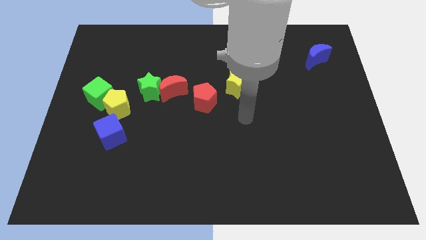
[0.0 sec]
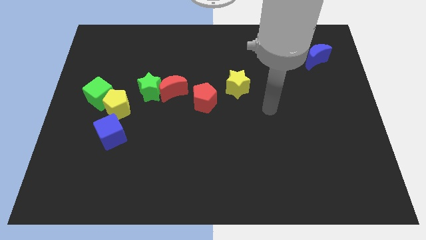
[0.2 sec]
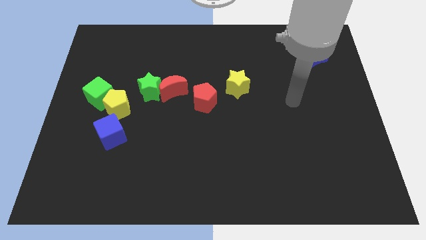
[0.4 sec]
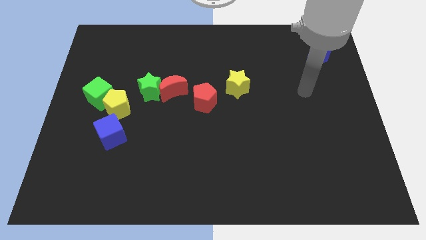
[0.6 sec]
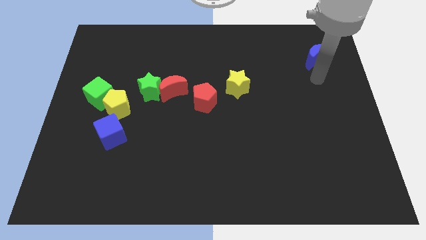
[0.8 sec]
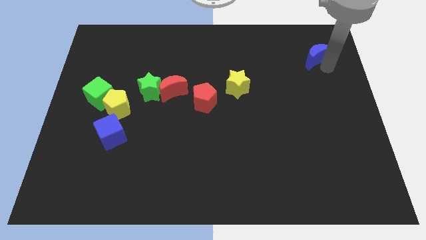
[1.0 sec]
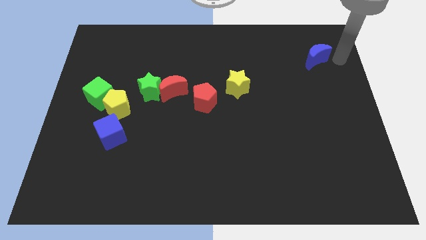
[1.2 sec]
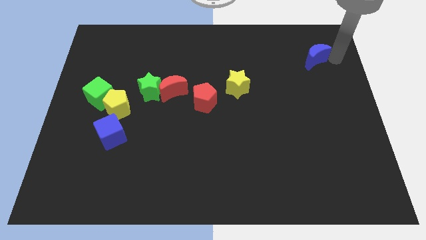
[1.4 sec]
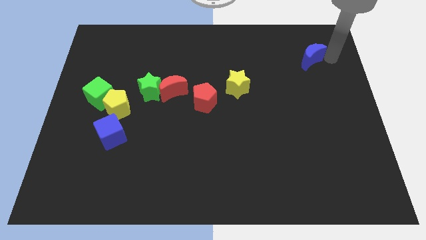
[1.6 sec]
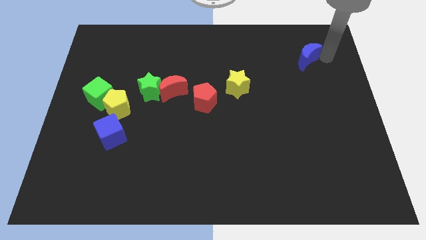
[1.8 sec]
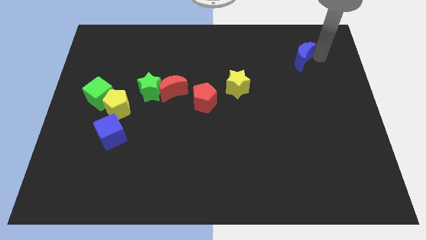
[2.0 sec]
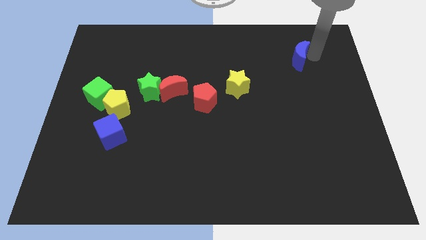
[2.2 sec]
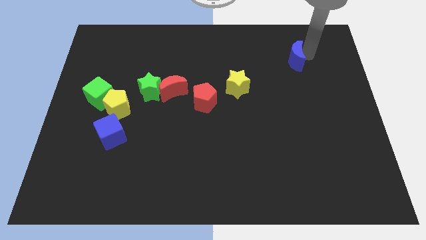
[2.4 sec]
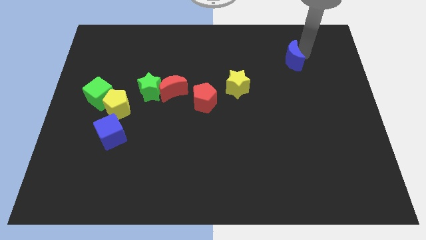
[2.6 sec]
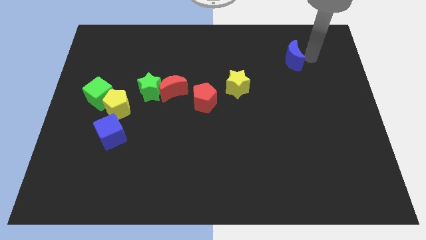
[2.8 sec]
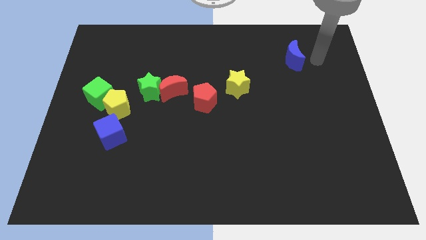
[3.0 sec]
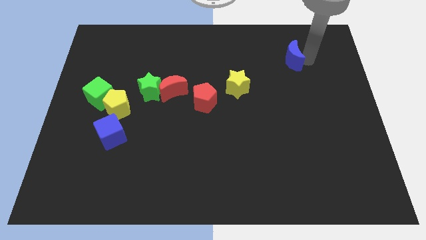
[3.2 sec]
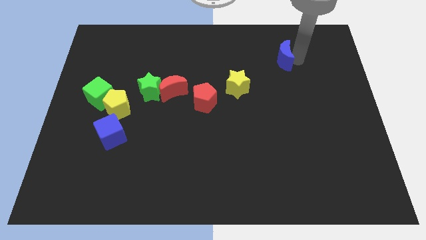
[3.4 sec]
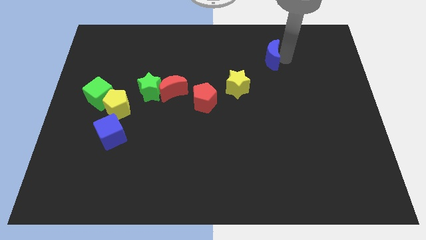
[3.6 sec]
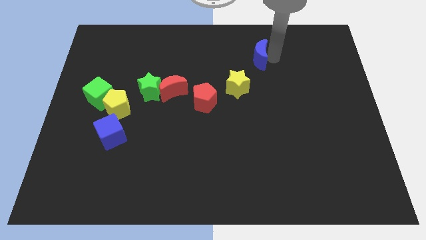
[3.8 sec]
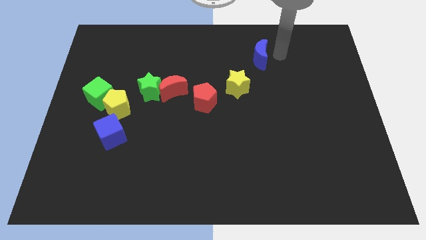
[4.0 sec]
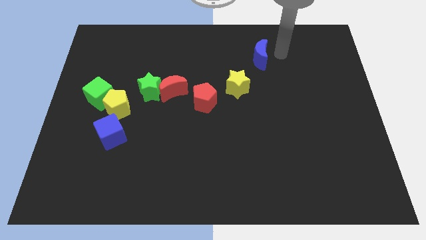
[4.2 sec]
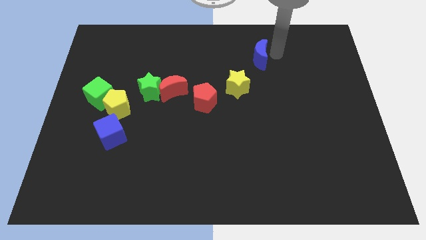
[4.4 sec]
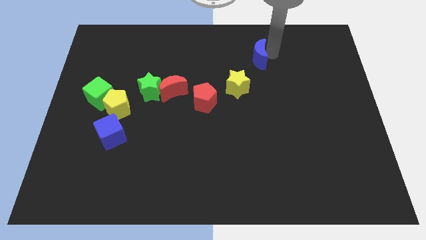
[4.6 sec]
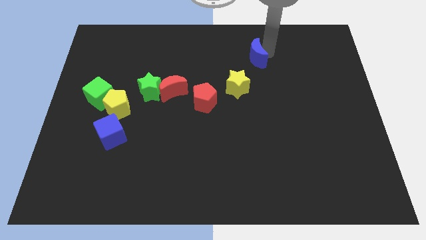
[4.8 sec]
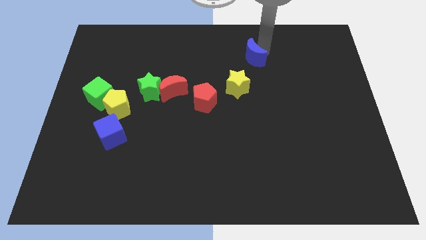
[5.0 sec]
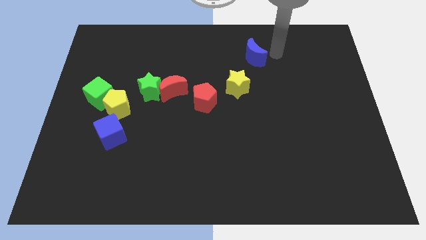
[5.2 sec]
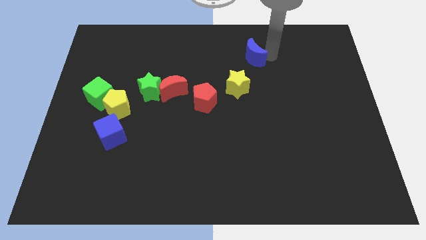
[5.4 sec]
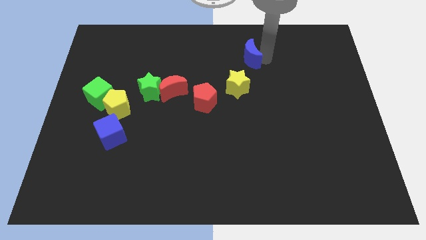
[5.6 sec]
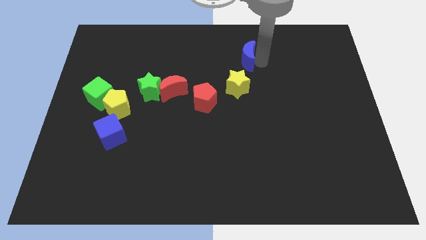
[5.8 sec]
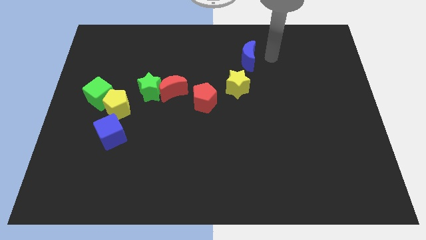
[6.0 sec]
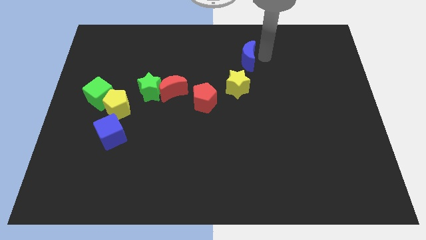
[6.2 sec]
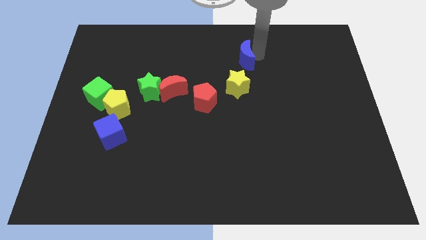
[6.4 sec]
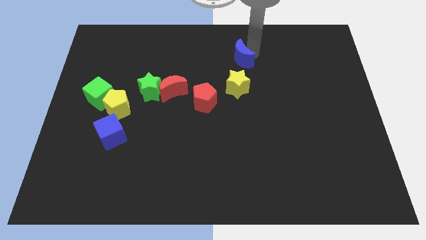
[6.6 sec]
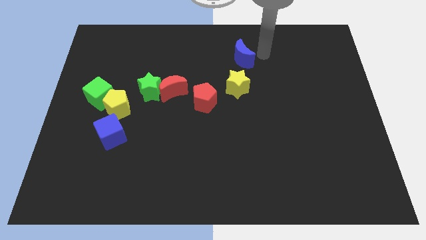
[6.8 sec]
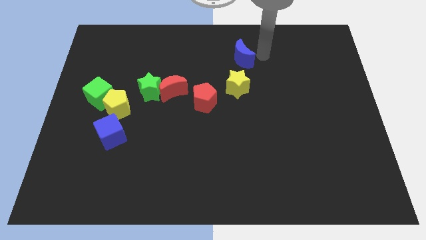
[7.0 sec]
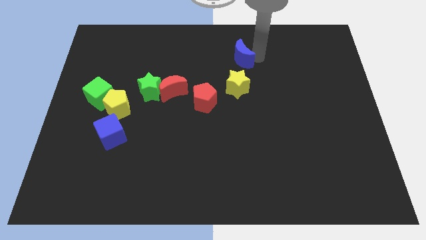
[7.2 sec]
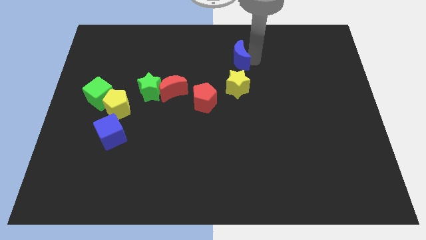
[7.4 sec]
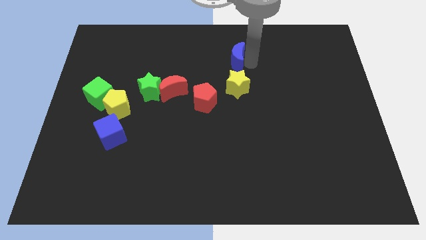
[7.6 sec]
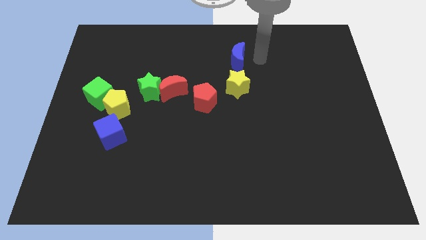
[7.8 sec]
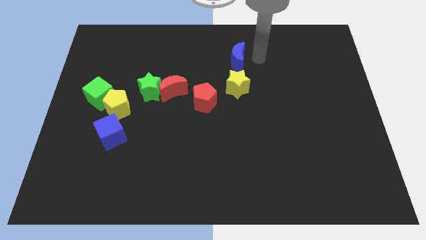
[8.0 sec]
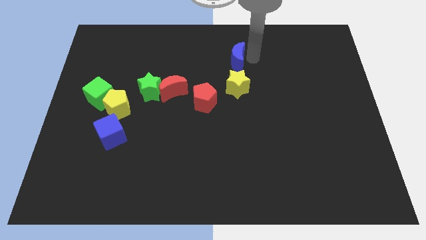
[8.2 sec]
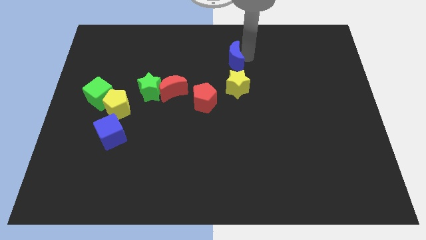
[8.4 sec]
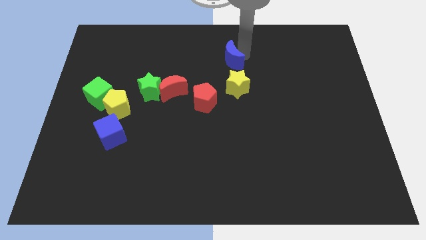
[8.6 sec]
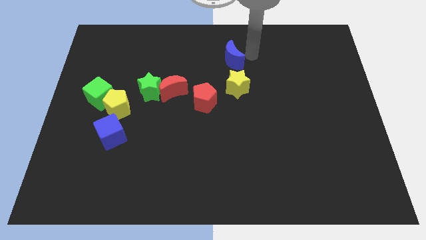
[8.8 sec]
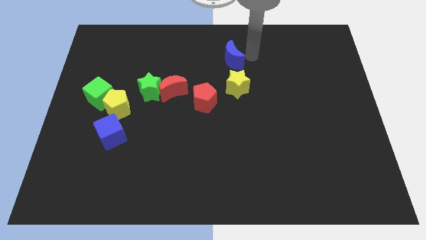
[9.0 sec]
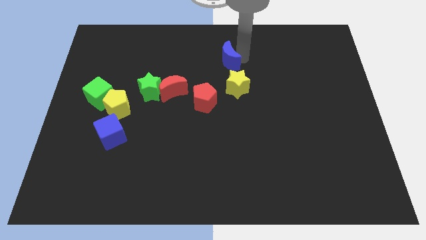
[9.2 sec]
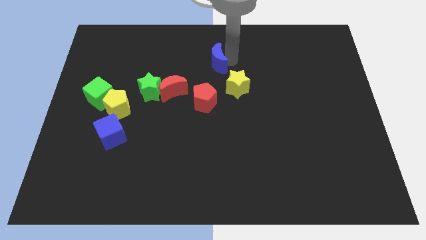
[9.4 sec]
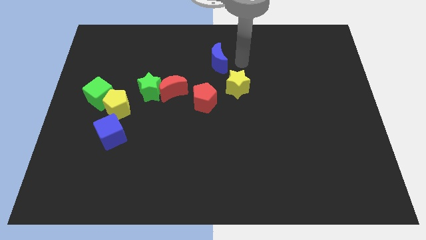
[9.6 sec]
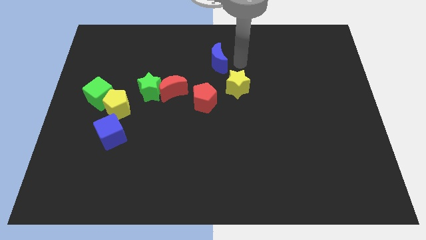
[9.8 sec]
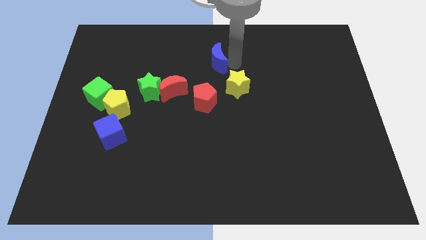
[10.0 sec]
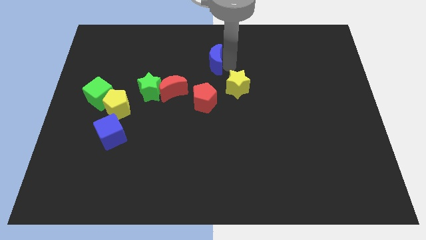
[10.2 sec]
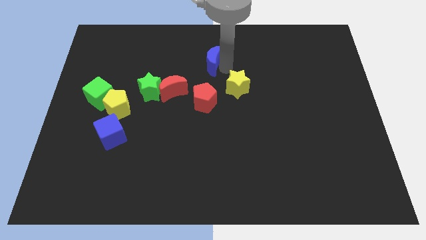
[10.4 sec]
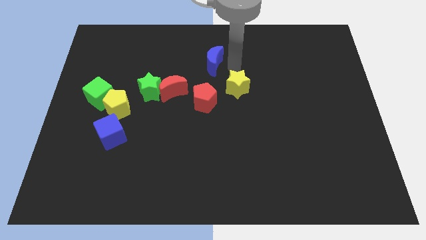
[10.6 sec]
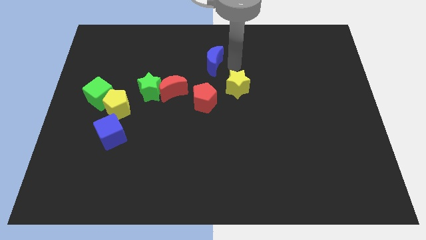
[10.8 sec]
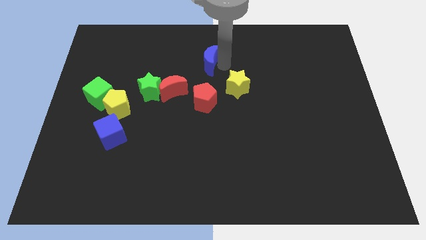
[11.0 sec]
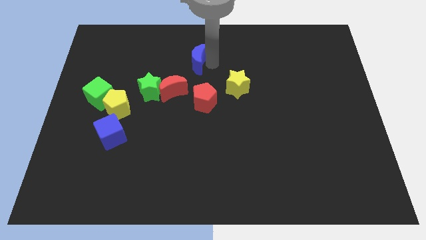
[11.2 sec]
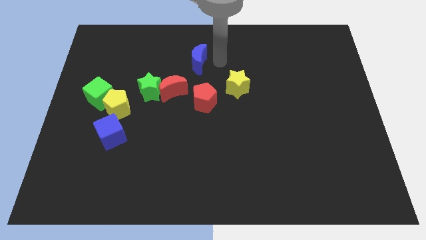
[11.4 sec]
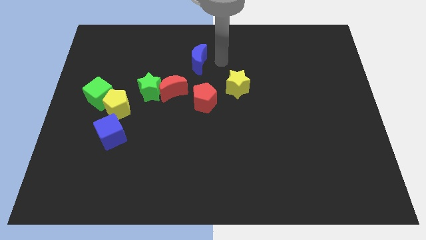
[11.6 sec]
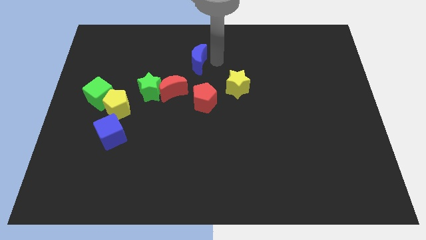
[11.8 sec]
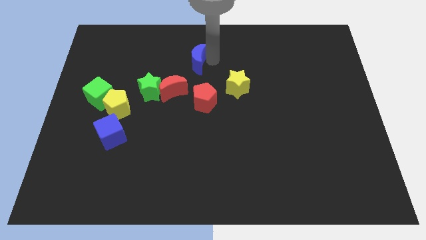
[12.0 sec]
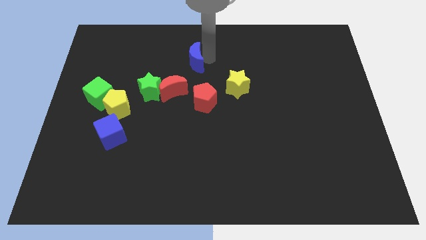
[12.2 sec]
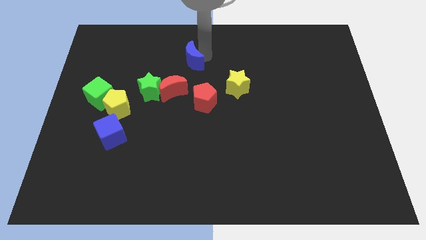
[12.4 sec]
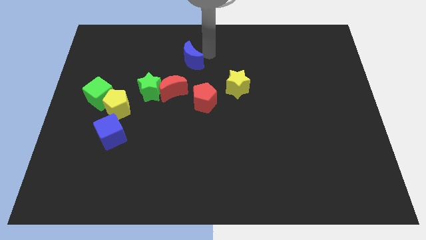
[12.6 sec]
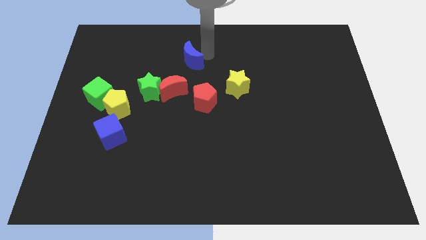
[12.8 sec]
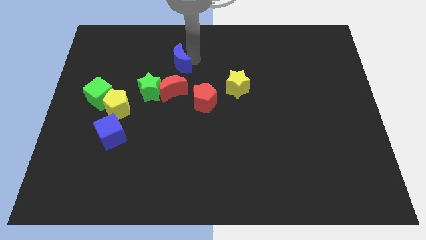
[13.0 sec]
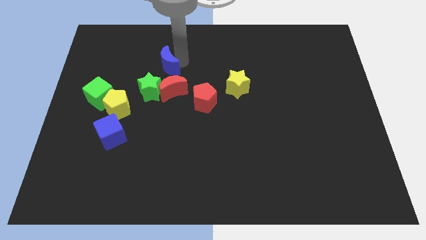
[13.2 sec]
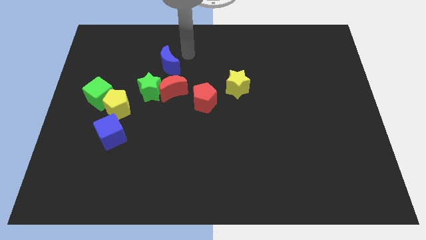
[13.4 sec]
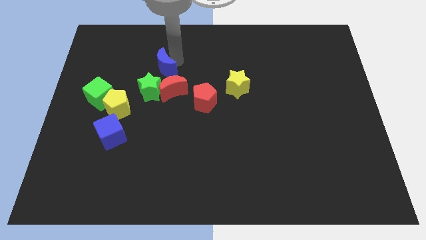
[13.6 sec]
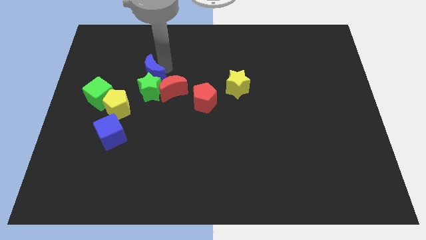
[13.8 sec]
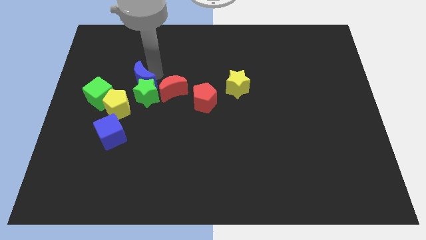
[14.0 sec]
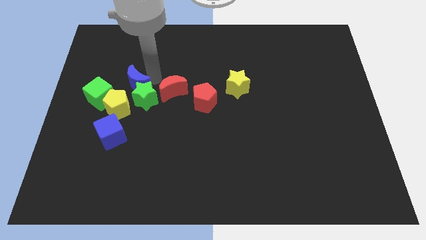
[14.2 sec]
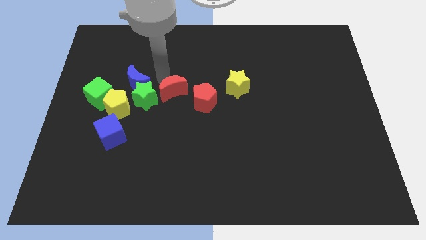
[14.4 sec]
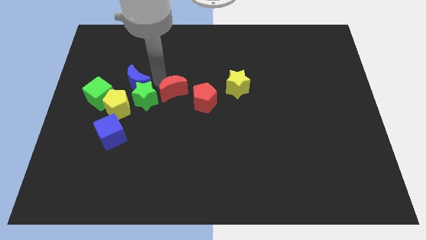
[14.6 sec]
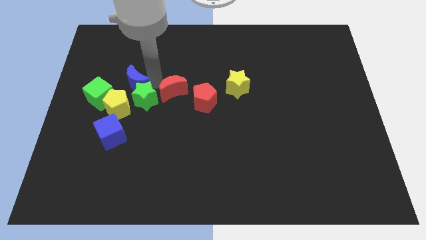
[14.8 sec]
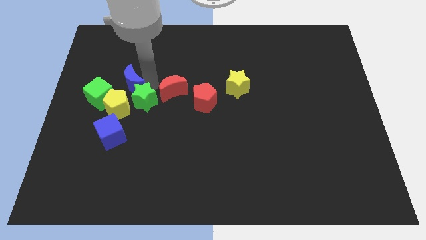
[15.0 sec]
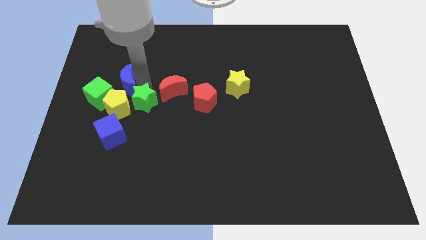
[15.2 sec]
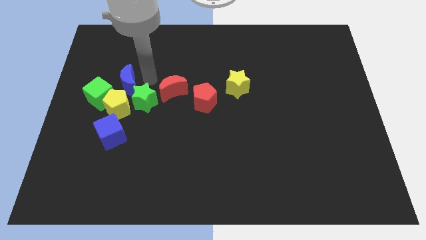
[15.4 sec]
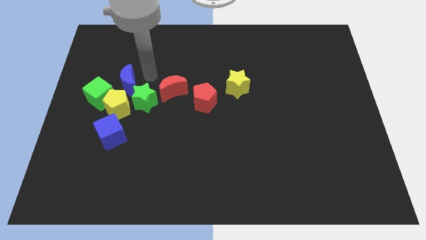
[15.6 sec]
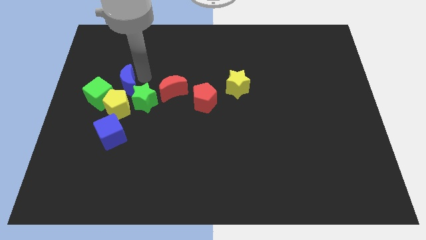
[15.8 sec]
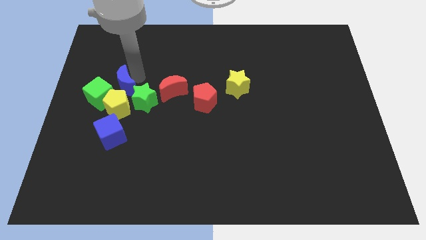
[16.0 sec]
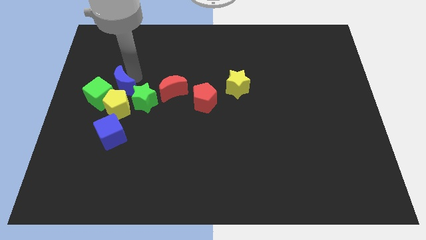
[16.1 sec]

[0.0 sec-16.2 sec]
move the blue moon close to the green cube
